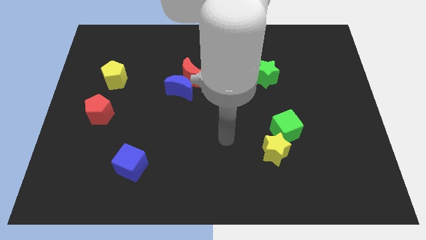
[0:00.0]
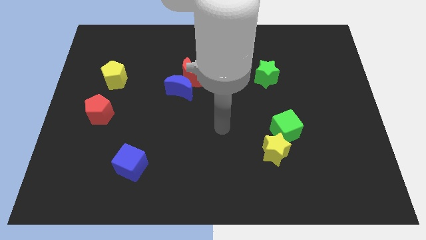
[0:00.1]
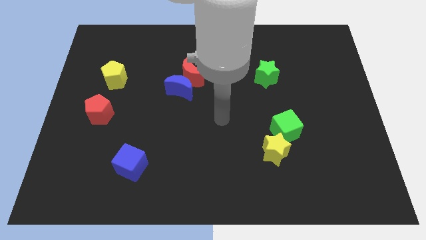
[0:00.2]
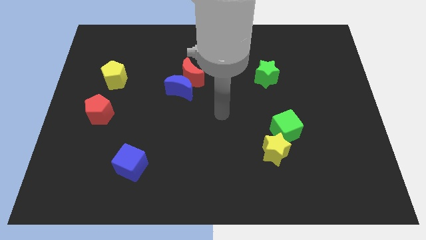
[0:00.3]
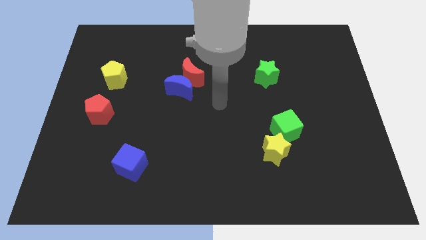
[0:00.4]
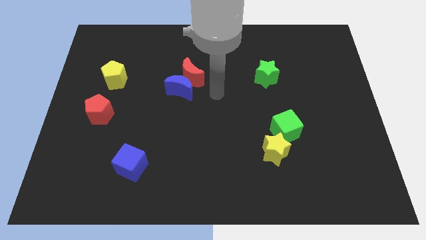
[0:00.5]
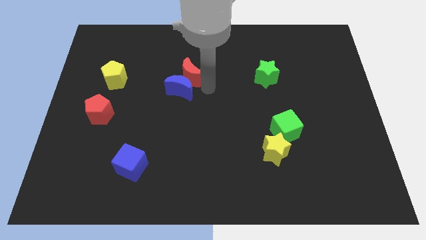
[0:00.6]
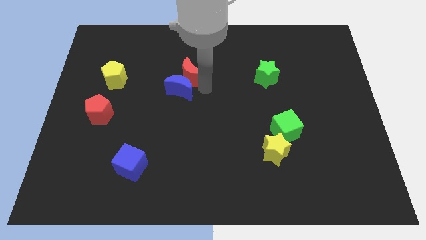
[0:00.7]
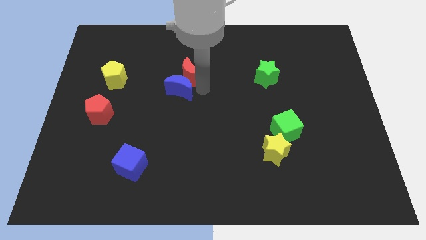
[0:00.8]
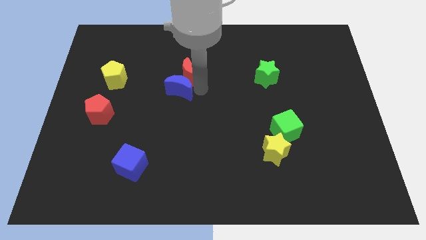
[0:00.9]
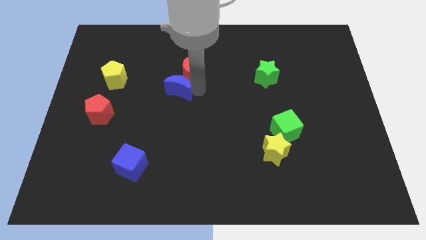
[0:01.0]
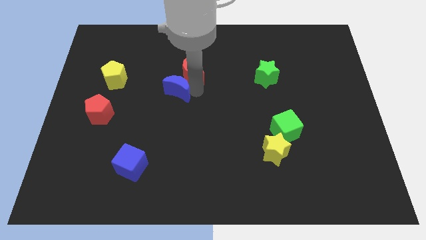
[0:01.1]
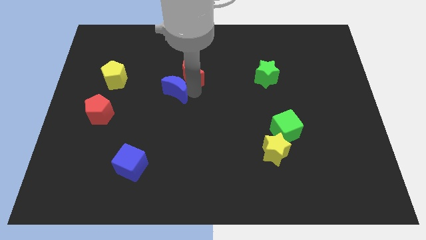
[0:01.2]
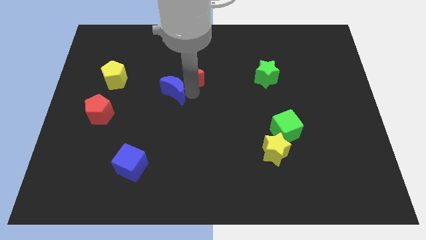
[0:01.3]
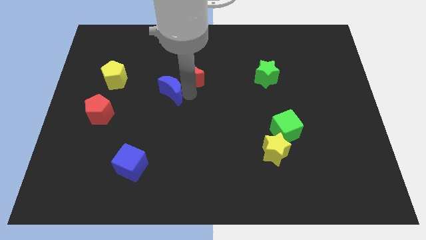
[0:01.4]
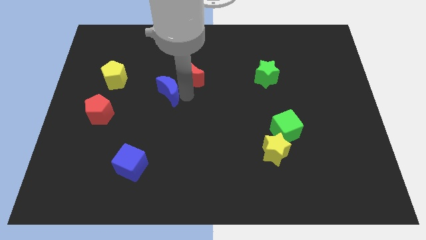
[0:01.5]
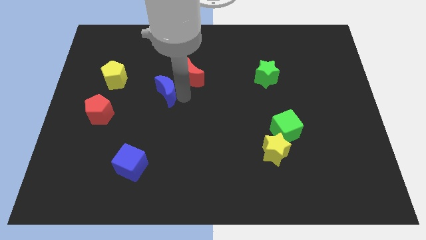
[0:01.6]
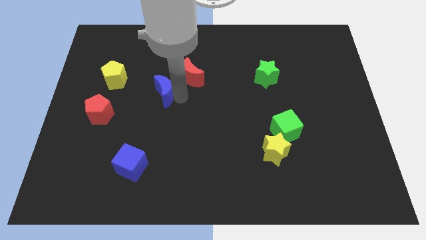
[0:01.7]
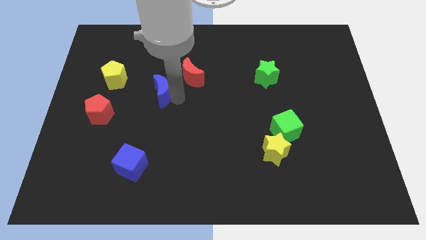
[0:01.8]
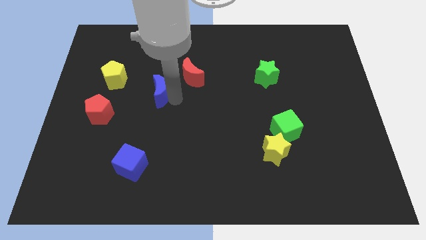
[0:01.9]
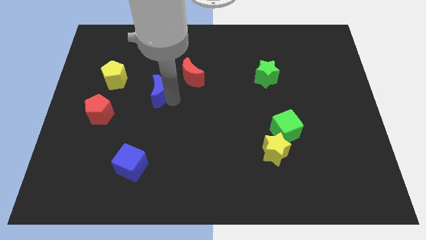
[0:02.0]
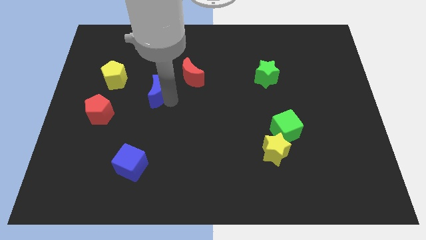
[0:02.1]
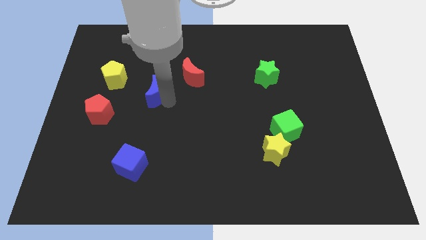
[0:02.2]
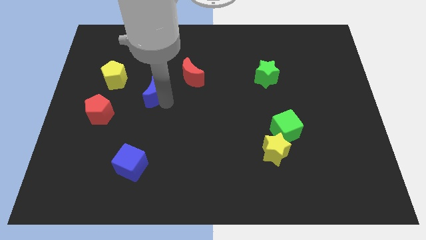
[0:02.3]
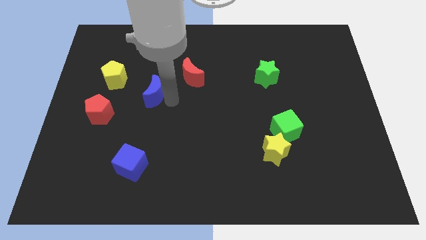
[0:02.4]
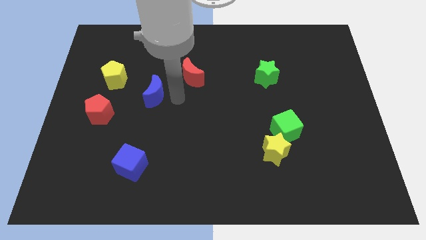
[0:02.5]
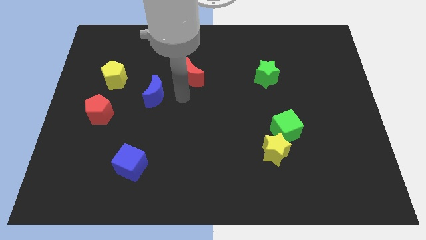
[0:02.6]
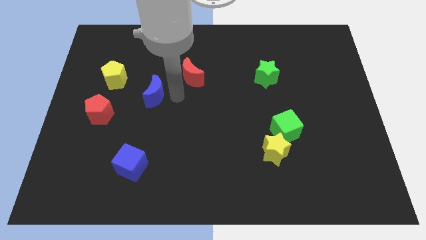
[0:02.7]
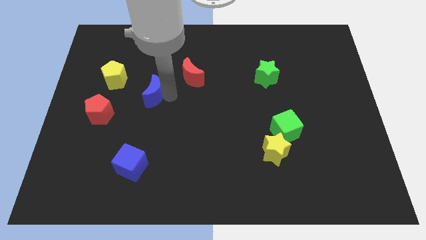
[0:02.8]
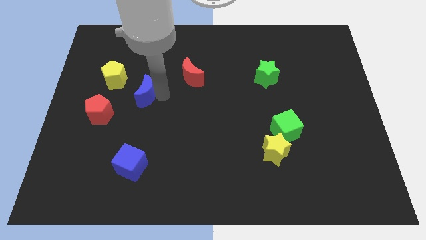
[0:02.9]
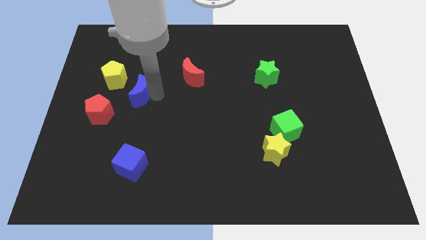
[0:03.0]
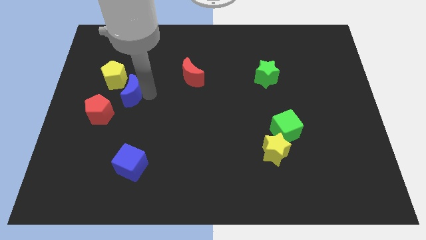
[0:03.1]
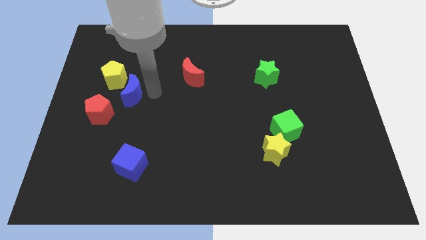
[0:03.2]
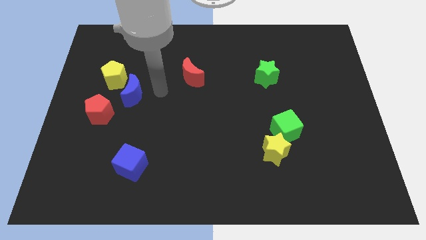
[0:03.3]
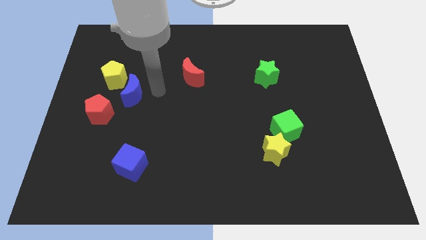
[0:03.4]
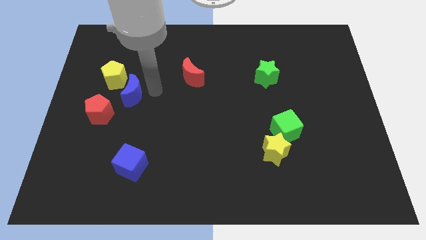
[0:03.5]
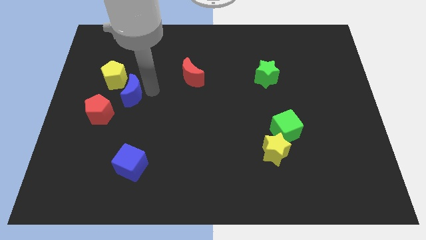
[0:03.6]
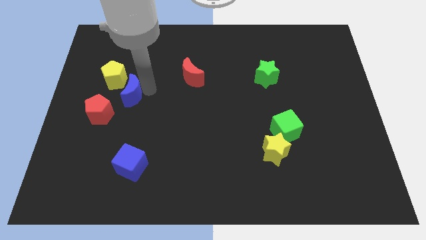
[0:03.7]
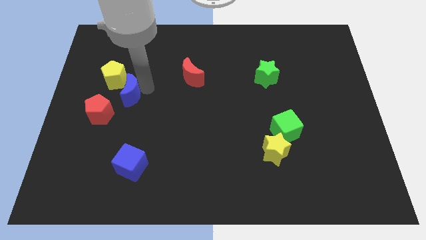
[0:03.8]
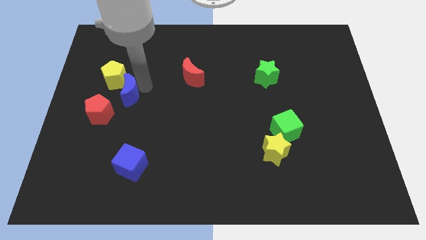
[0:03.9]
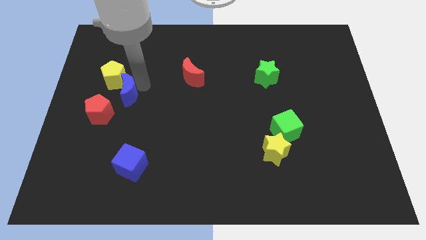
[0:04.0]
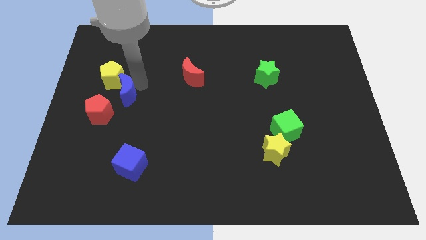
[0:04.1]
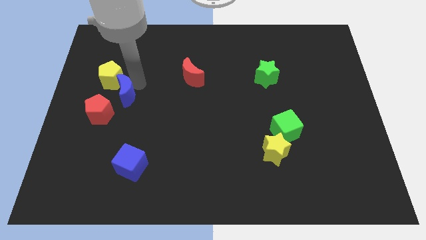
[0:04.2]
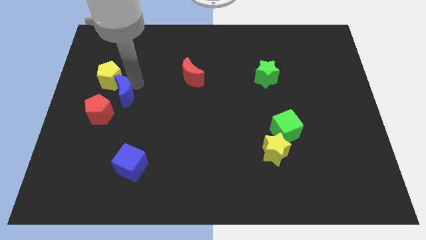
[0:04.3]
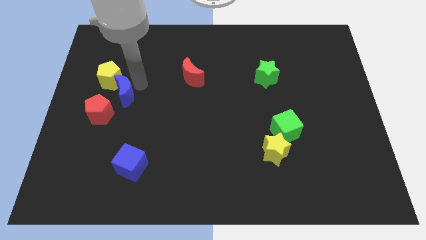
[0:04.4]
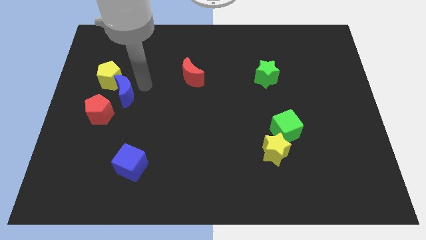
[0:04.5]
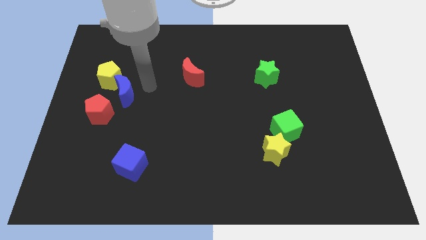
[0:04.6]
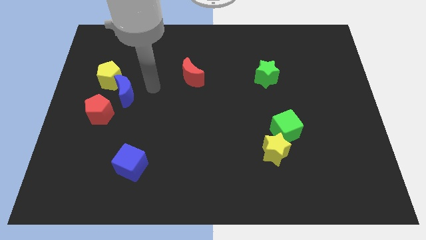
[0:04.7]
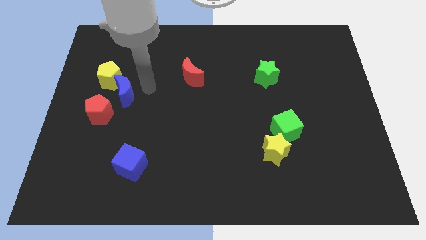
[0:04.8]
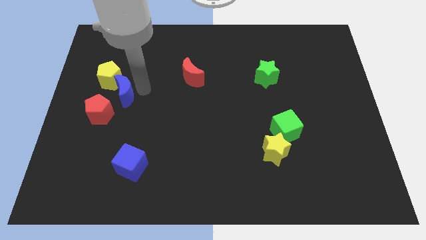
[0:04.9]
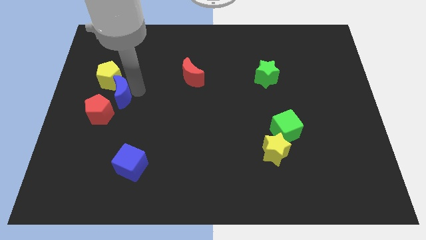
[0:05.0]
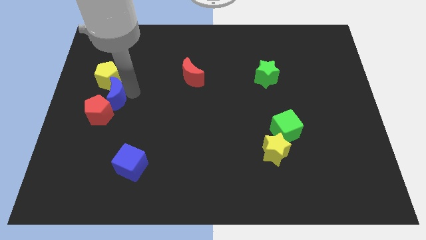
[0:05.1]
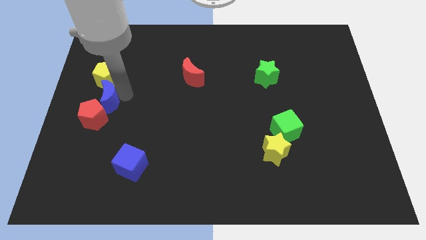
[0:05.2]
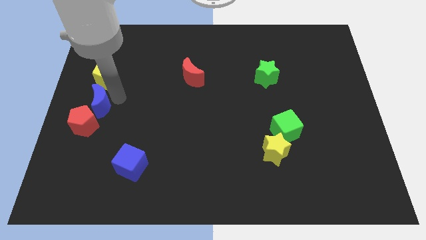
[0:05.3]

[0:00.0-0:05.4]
push the blue moon to the left side

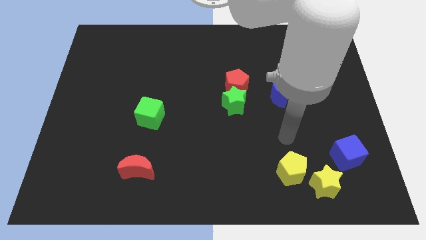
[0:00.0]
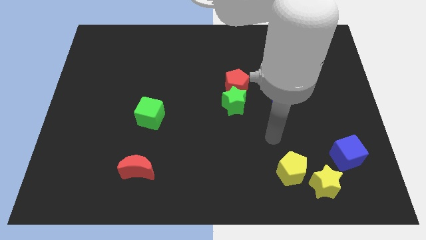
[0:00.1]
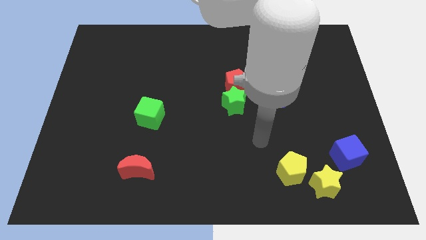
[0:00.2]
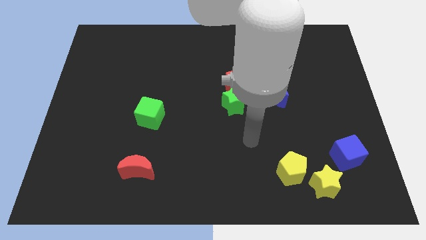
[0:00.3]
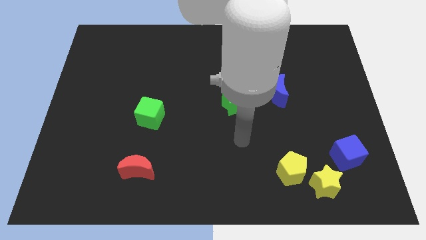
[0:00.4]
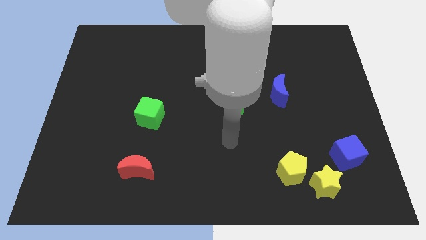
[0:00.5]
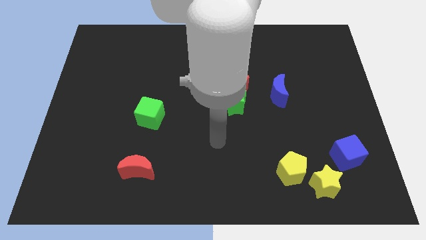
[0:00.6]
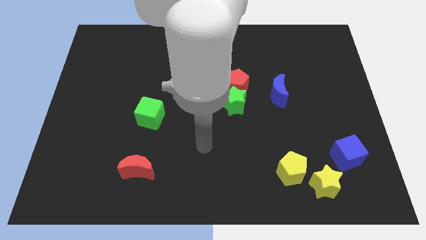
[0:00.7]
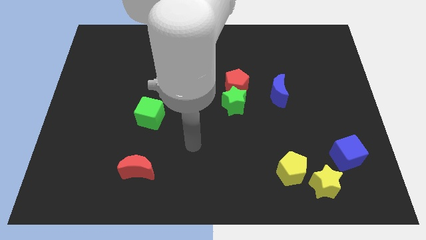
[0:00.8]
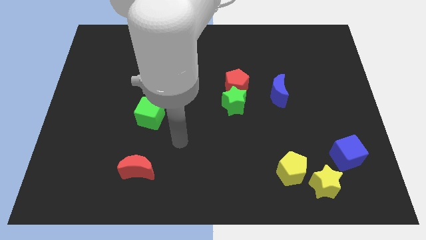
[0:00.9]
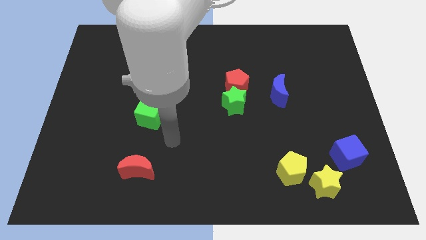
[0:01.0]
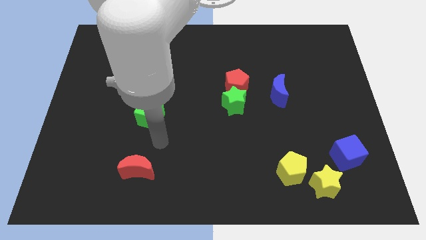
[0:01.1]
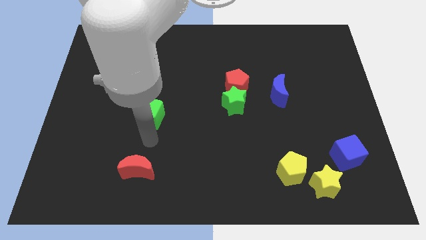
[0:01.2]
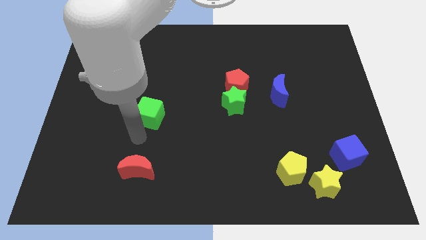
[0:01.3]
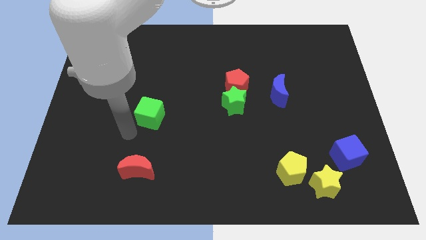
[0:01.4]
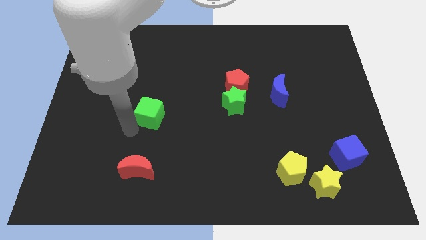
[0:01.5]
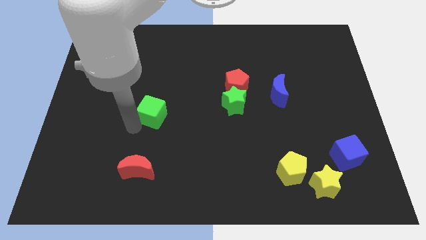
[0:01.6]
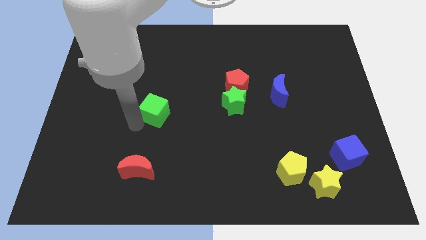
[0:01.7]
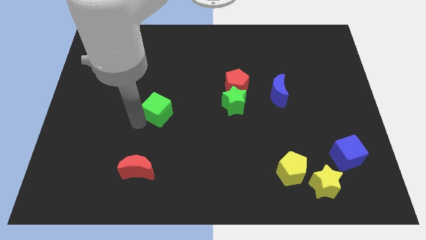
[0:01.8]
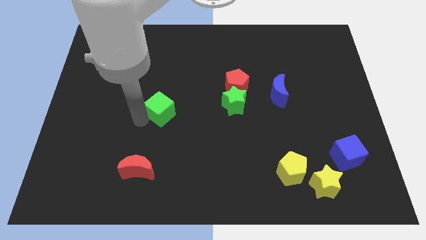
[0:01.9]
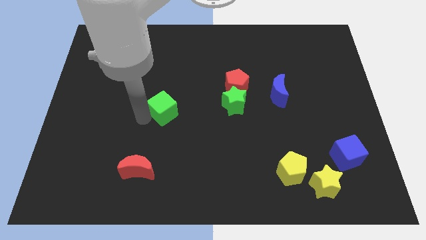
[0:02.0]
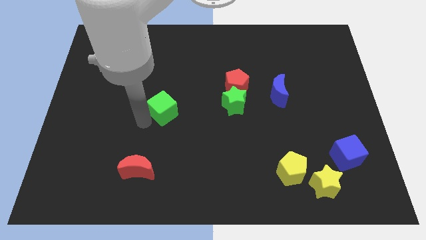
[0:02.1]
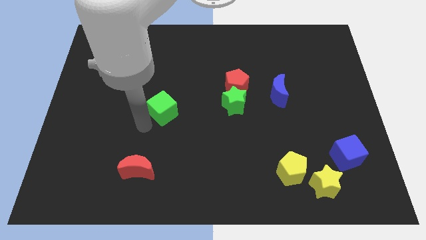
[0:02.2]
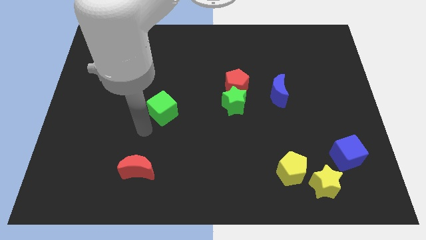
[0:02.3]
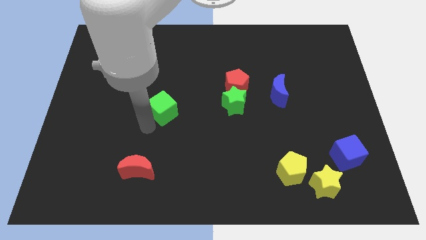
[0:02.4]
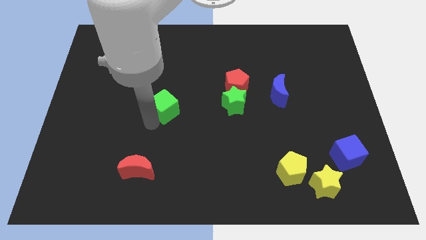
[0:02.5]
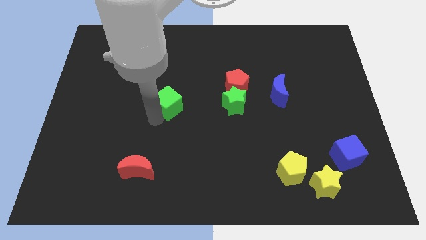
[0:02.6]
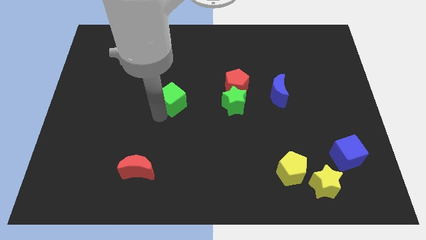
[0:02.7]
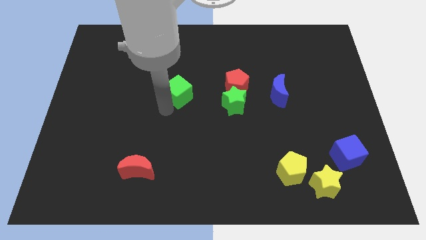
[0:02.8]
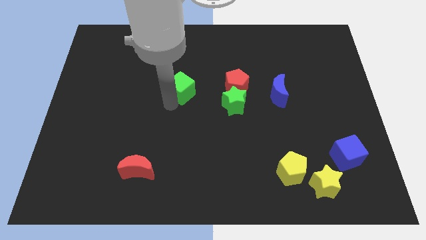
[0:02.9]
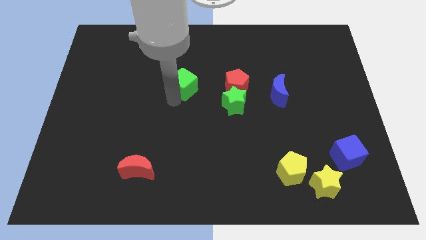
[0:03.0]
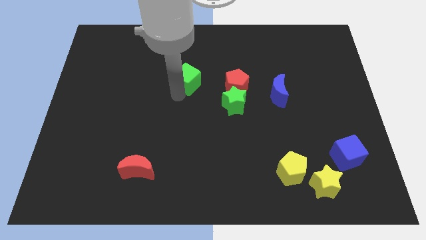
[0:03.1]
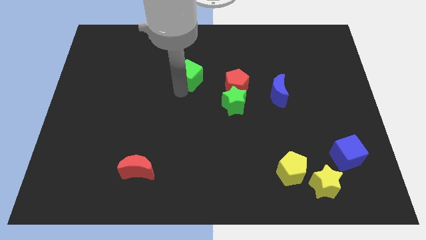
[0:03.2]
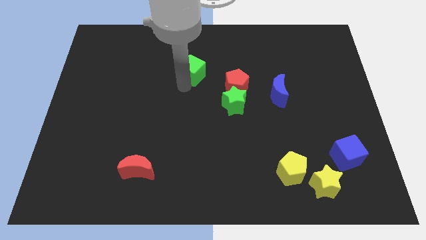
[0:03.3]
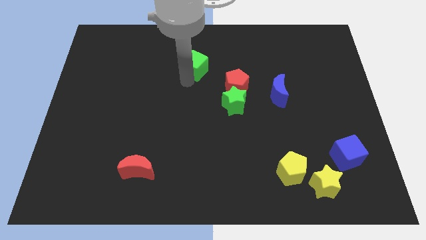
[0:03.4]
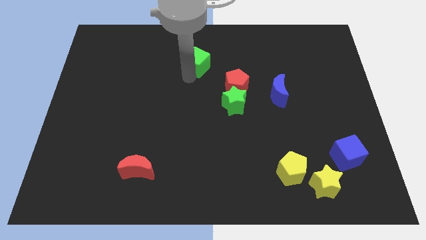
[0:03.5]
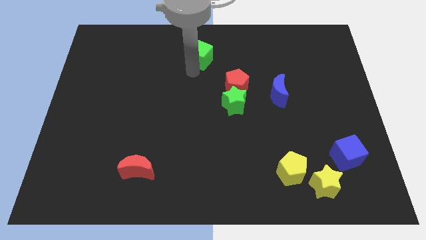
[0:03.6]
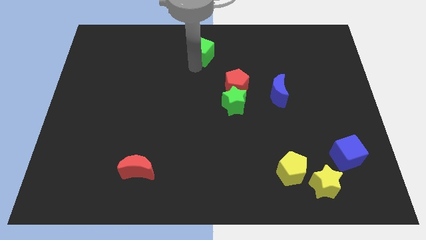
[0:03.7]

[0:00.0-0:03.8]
put the green cube to the towards your base
